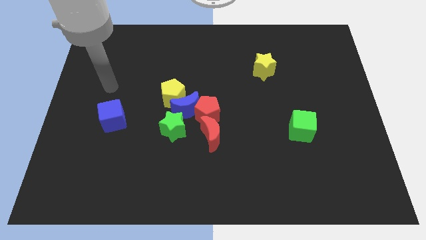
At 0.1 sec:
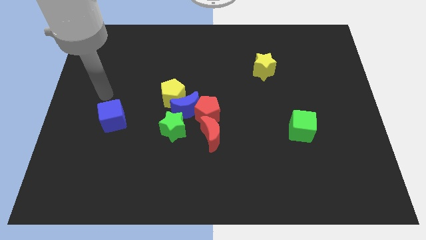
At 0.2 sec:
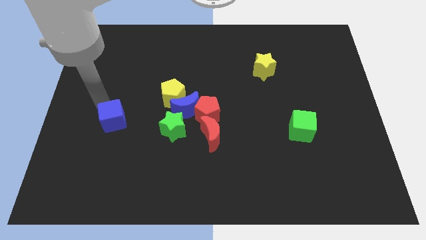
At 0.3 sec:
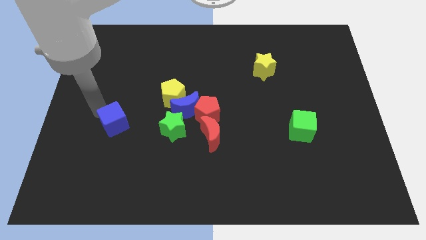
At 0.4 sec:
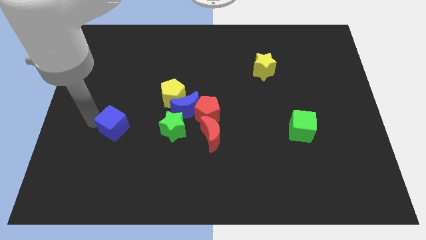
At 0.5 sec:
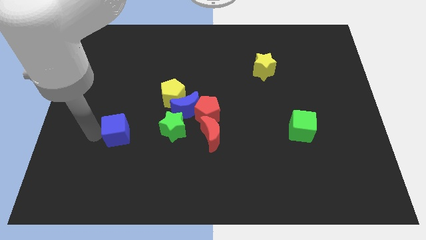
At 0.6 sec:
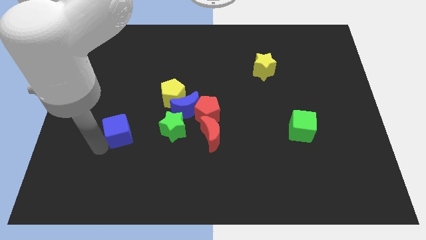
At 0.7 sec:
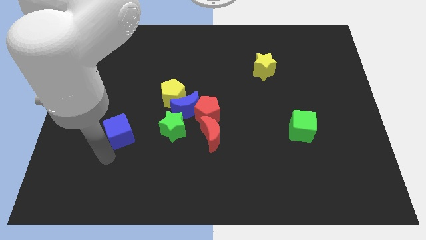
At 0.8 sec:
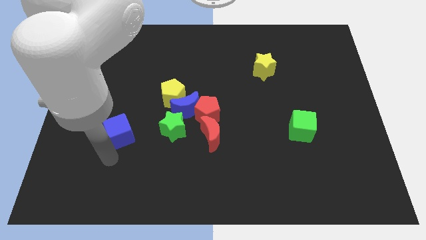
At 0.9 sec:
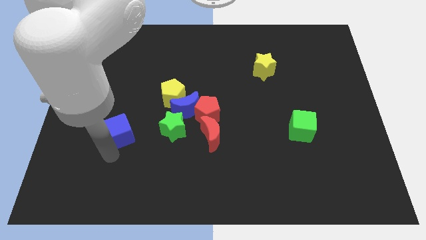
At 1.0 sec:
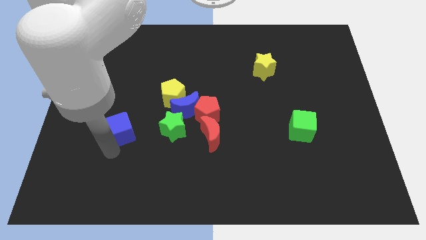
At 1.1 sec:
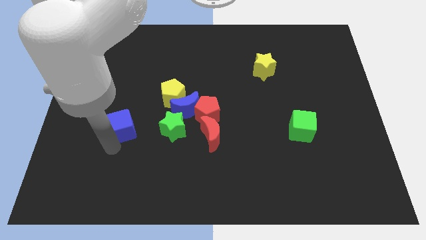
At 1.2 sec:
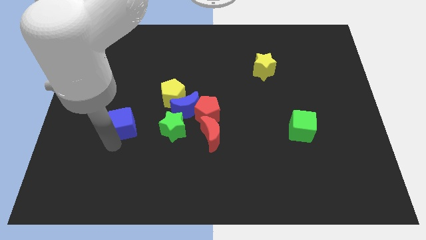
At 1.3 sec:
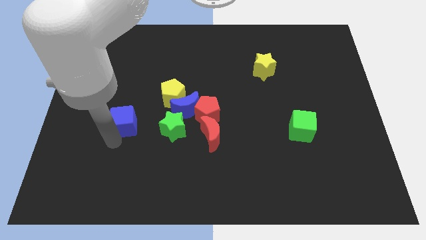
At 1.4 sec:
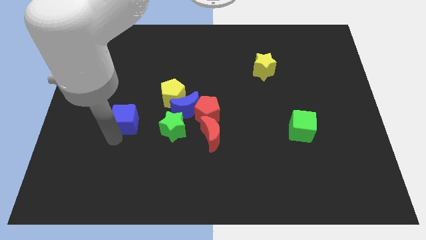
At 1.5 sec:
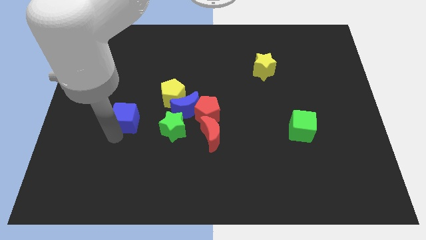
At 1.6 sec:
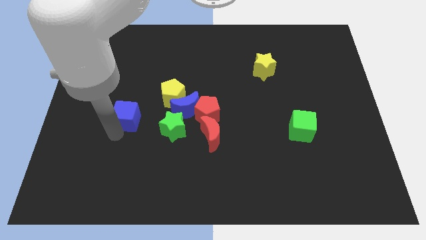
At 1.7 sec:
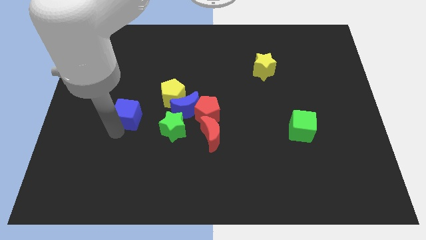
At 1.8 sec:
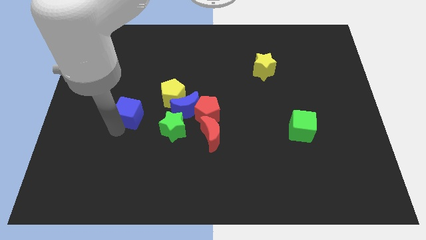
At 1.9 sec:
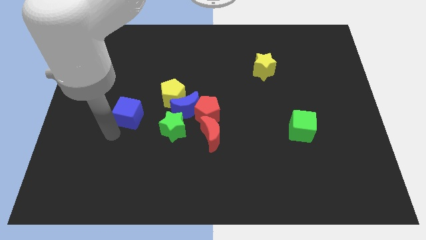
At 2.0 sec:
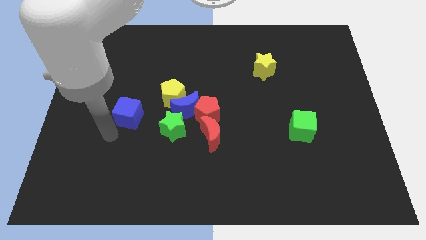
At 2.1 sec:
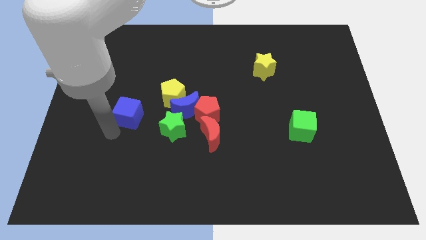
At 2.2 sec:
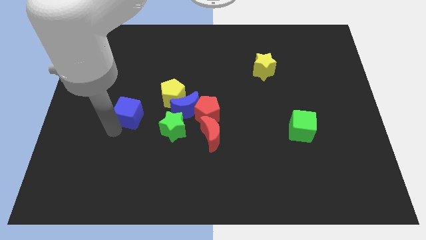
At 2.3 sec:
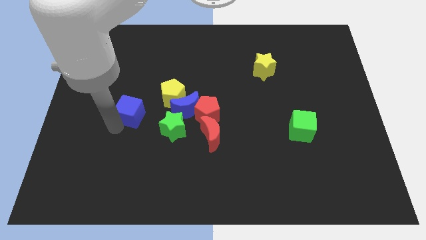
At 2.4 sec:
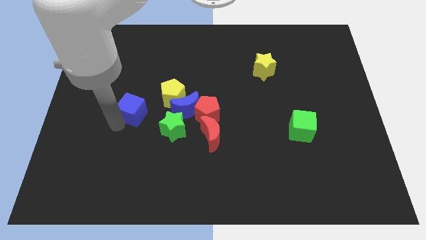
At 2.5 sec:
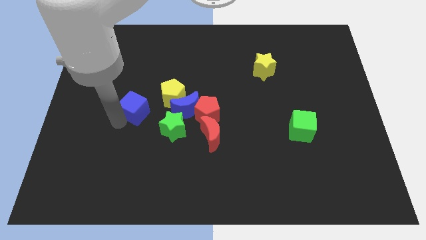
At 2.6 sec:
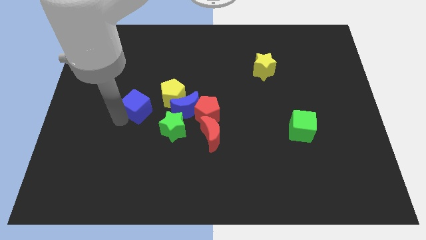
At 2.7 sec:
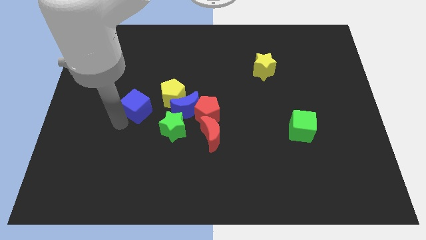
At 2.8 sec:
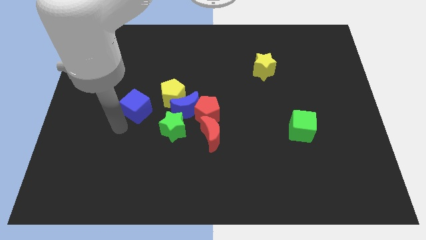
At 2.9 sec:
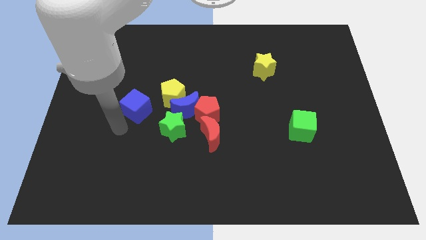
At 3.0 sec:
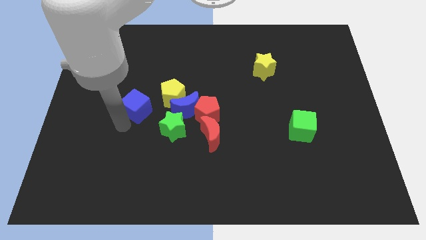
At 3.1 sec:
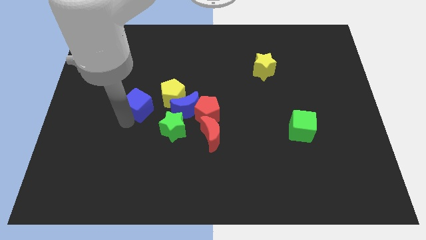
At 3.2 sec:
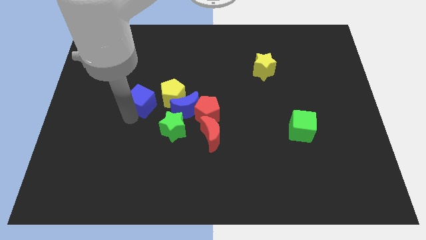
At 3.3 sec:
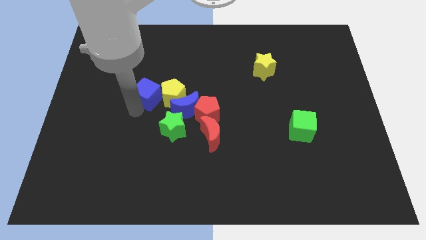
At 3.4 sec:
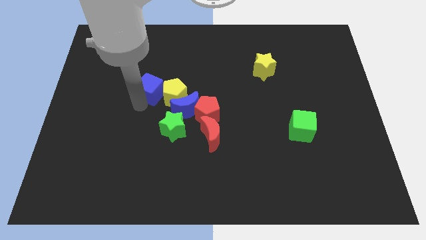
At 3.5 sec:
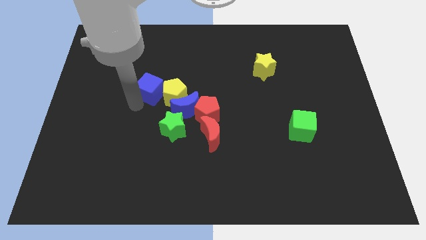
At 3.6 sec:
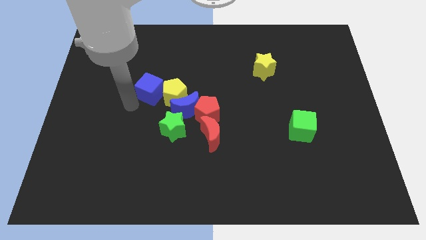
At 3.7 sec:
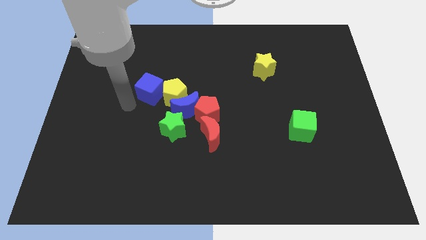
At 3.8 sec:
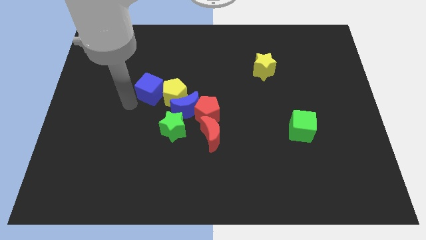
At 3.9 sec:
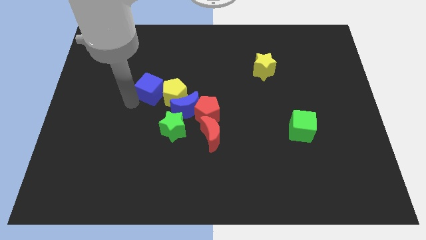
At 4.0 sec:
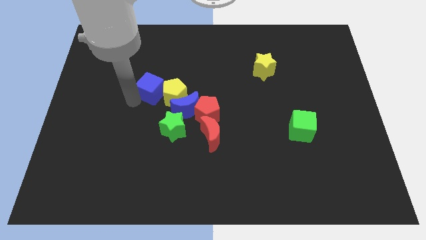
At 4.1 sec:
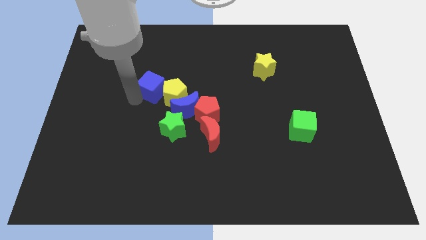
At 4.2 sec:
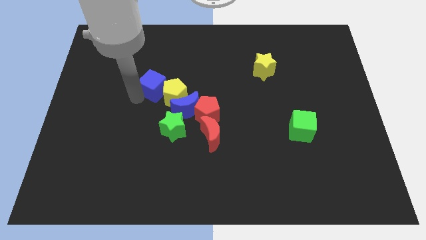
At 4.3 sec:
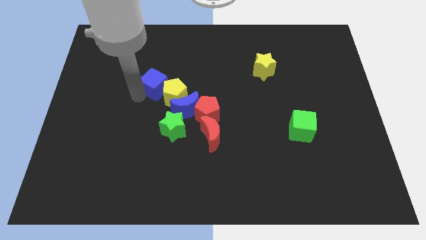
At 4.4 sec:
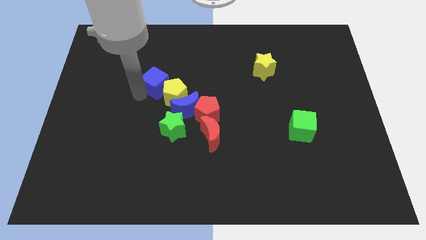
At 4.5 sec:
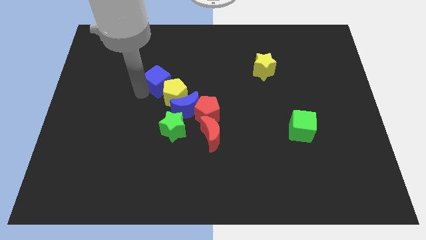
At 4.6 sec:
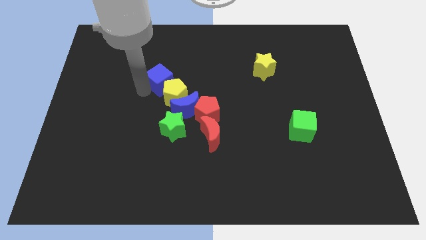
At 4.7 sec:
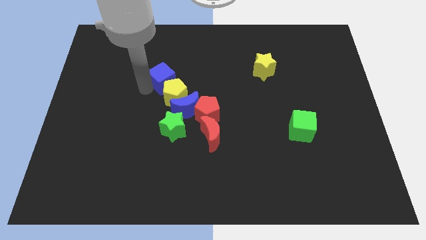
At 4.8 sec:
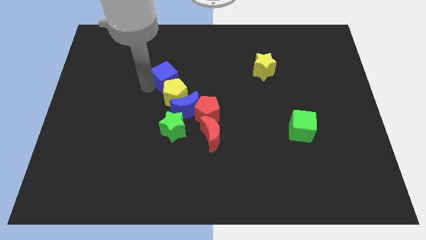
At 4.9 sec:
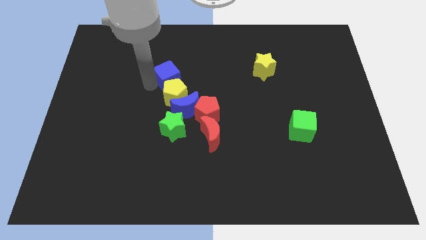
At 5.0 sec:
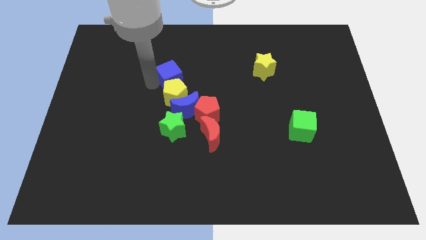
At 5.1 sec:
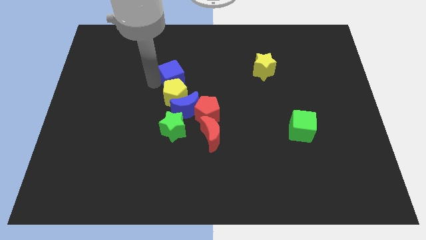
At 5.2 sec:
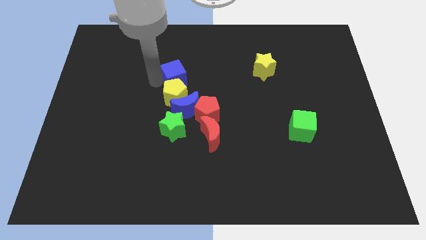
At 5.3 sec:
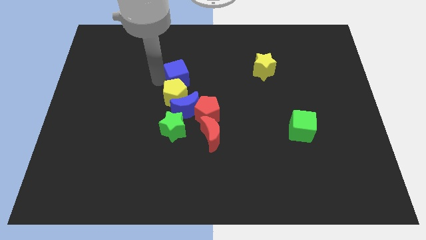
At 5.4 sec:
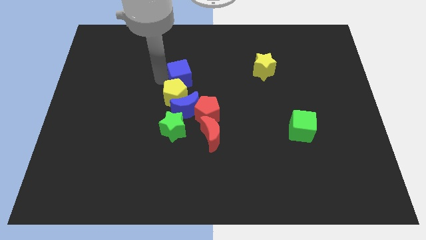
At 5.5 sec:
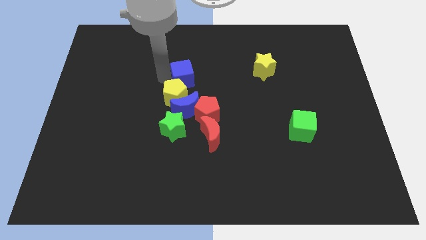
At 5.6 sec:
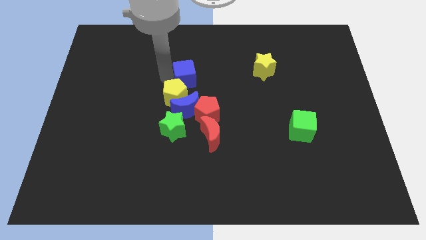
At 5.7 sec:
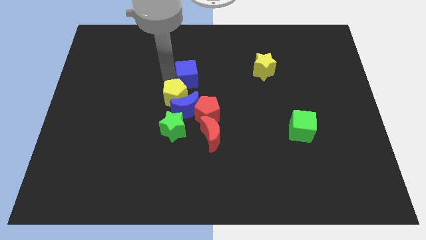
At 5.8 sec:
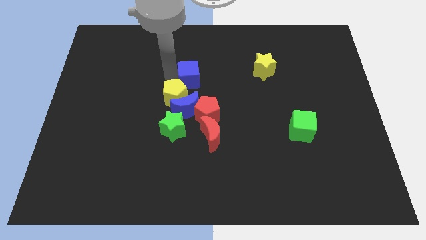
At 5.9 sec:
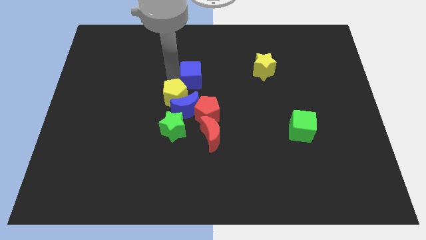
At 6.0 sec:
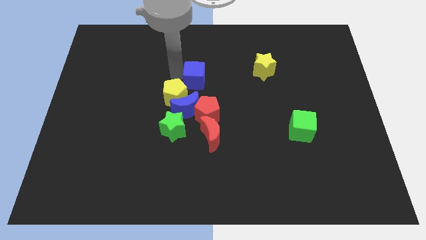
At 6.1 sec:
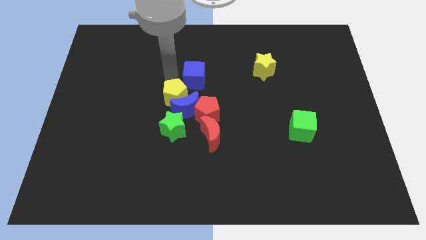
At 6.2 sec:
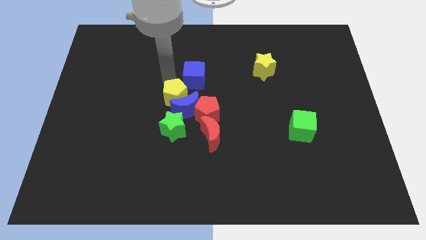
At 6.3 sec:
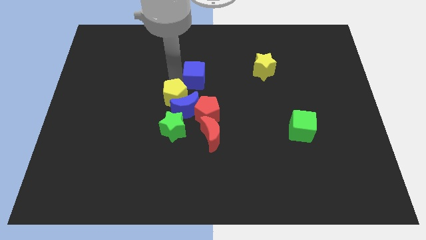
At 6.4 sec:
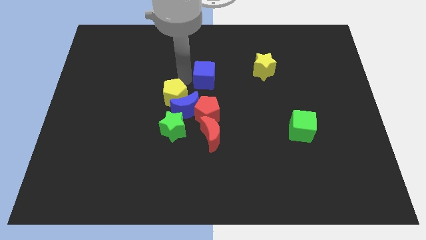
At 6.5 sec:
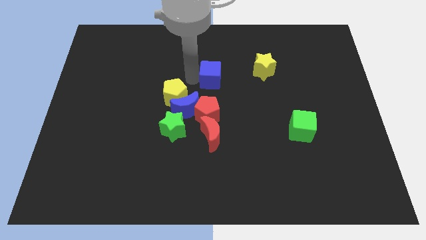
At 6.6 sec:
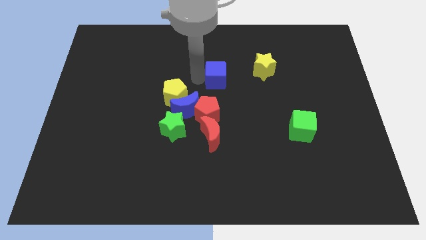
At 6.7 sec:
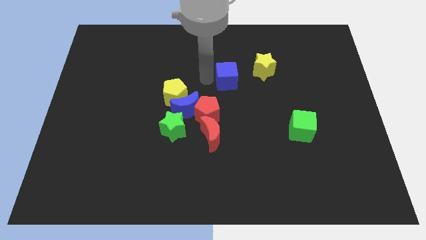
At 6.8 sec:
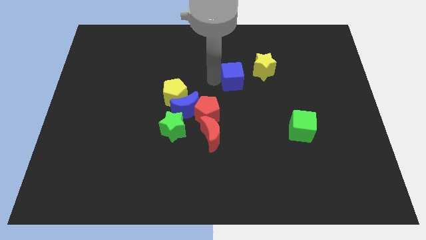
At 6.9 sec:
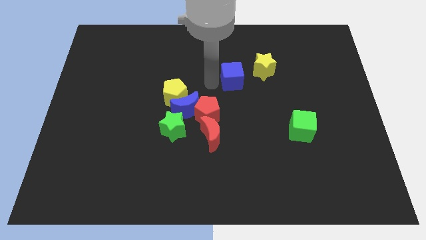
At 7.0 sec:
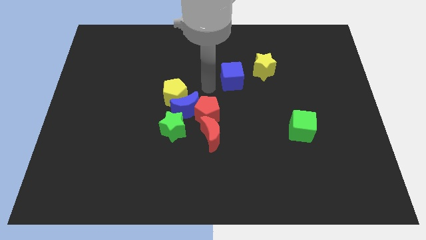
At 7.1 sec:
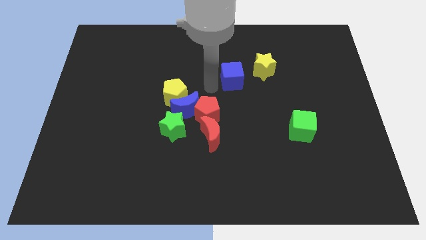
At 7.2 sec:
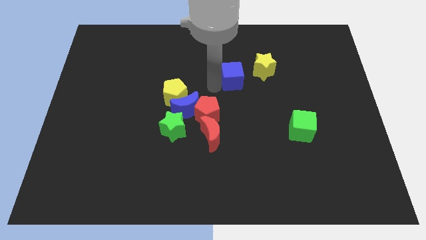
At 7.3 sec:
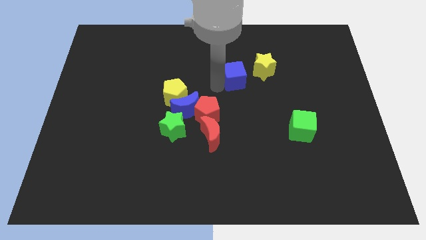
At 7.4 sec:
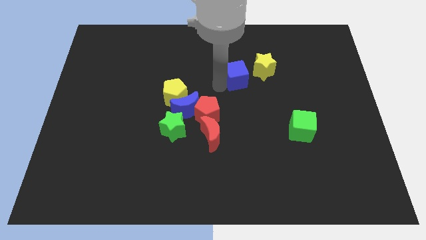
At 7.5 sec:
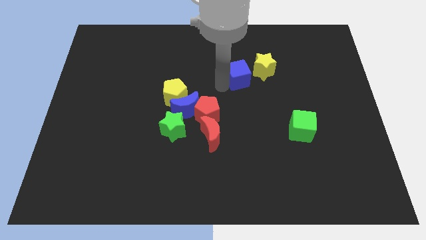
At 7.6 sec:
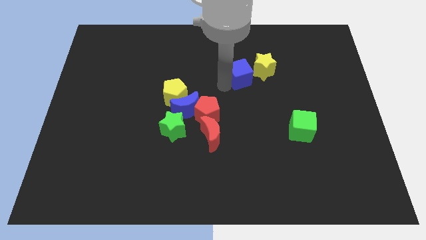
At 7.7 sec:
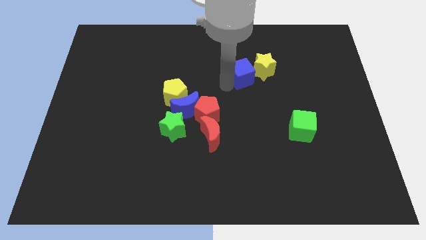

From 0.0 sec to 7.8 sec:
move the blue cube towards the yellow star

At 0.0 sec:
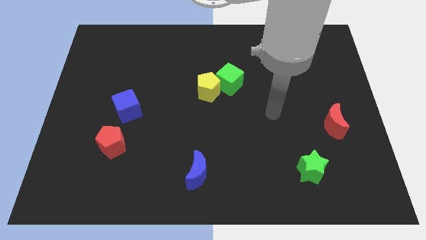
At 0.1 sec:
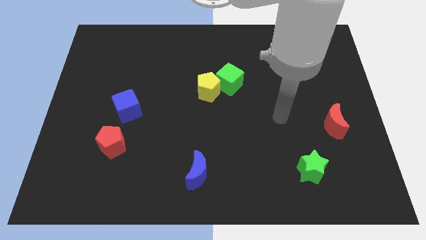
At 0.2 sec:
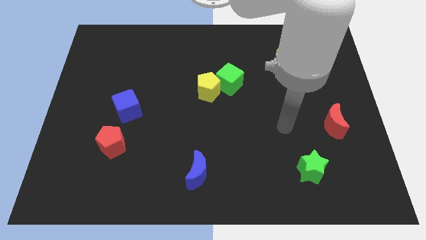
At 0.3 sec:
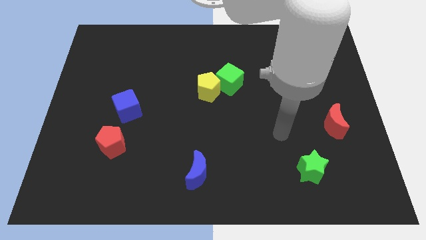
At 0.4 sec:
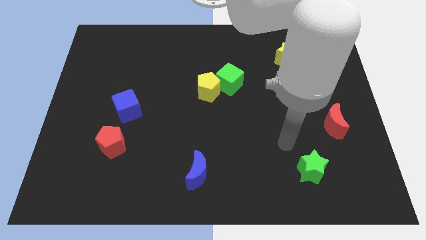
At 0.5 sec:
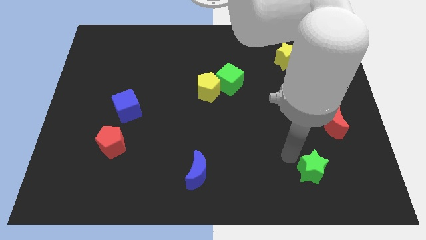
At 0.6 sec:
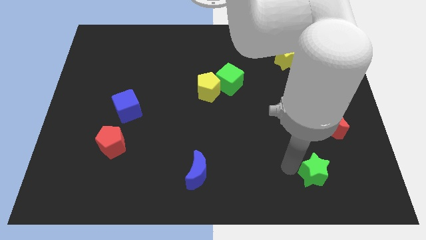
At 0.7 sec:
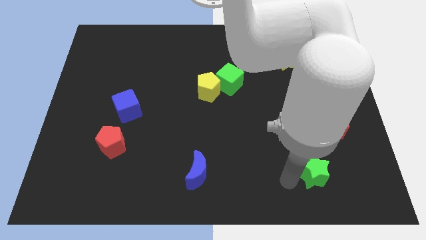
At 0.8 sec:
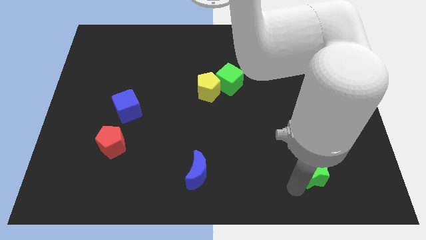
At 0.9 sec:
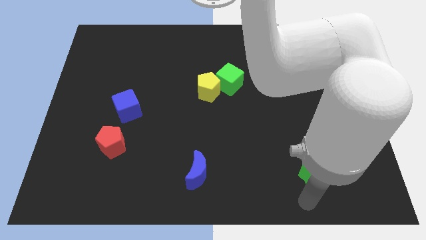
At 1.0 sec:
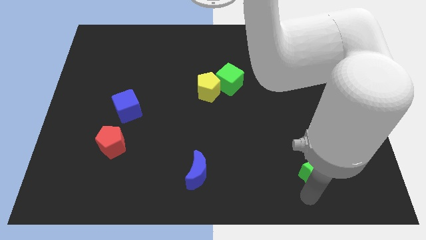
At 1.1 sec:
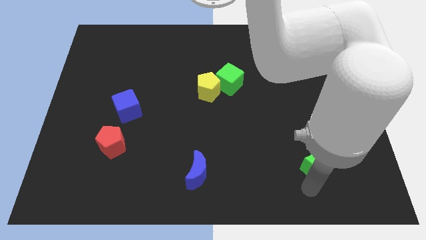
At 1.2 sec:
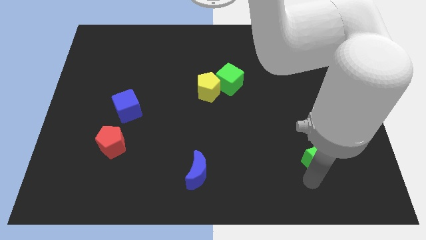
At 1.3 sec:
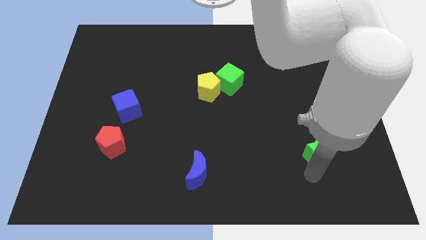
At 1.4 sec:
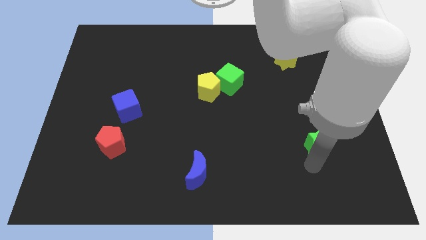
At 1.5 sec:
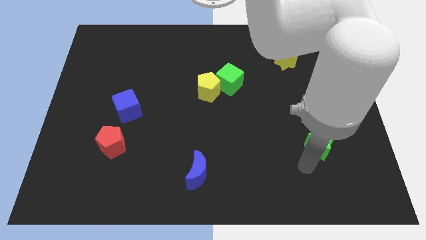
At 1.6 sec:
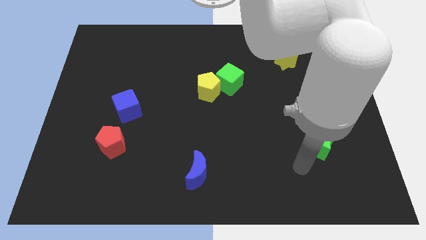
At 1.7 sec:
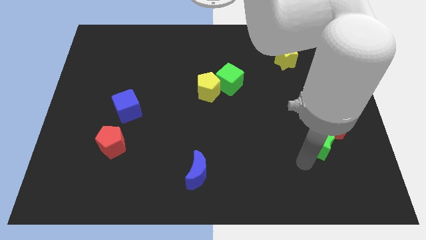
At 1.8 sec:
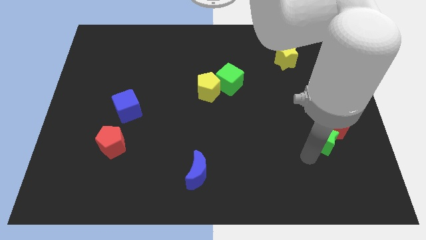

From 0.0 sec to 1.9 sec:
slide the green star next to the red moon
